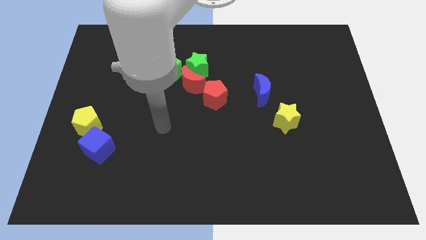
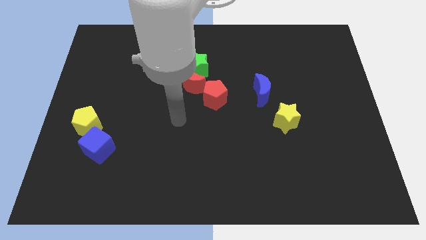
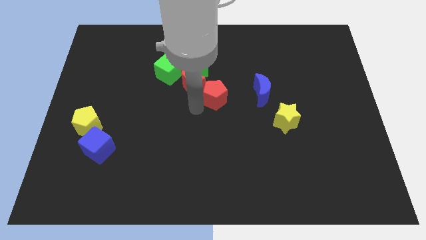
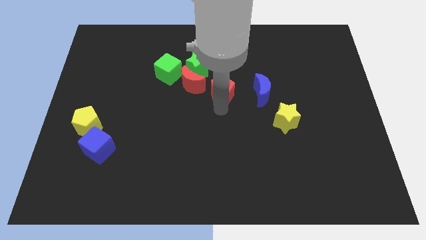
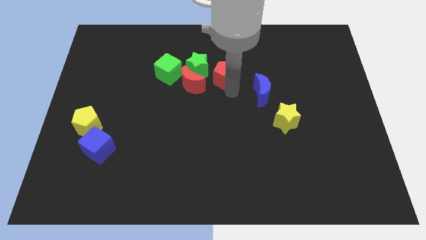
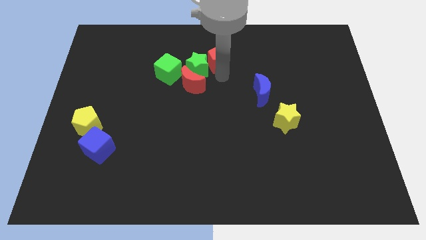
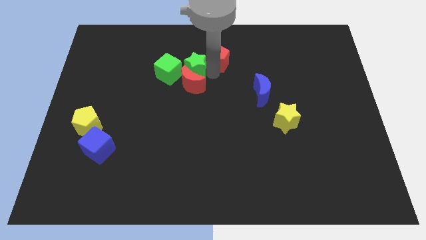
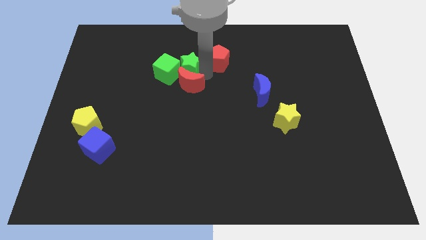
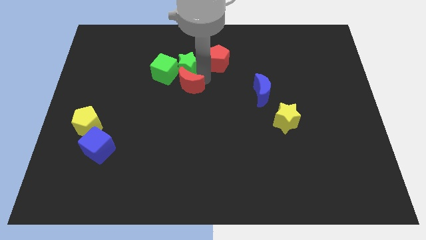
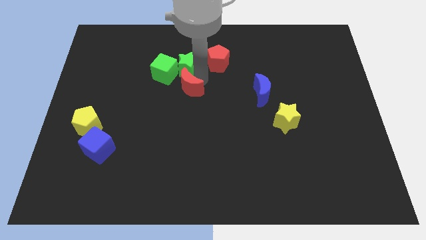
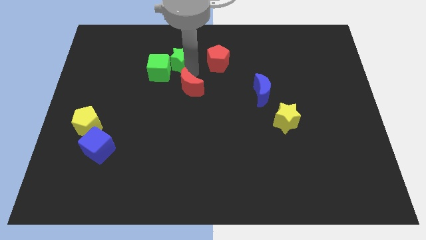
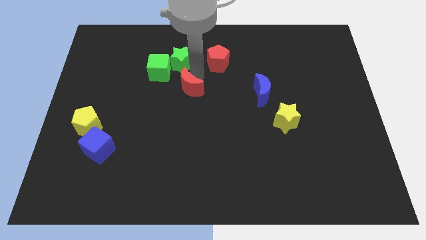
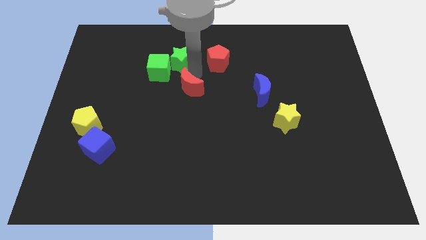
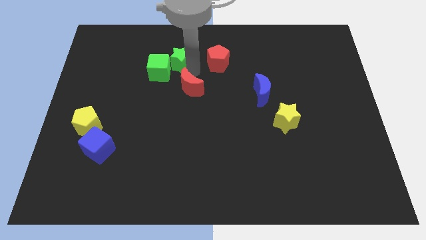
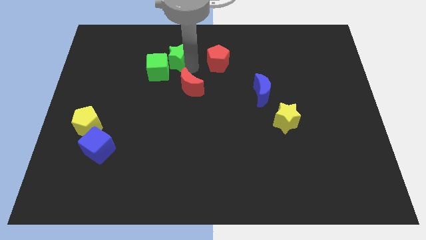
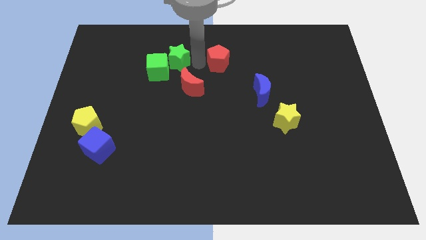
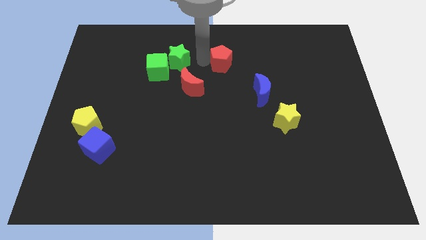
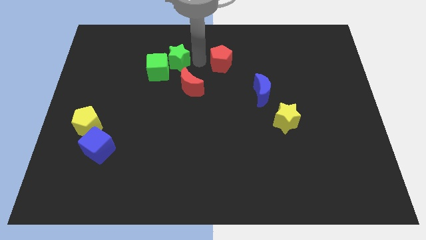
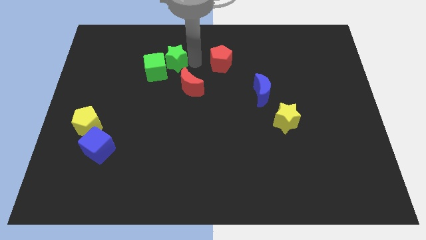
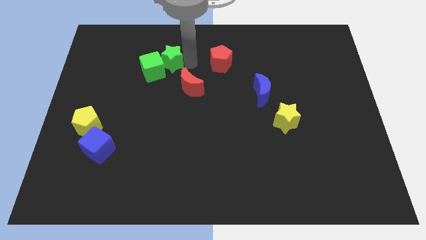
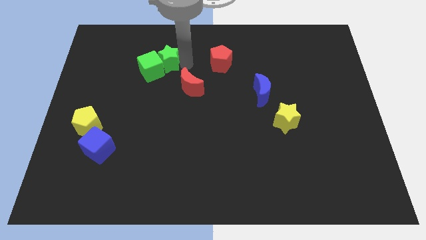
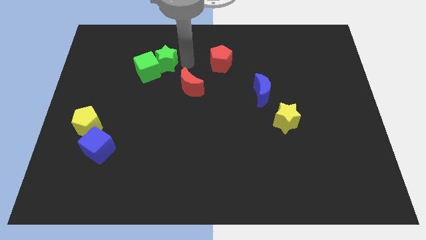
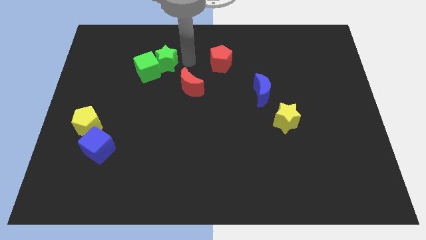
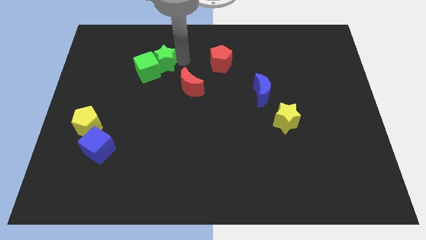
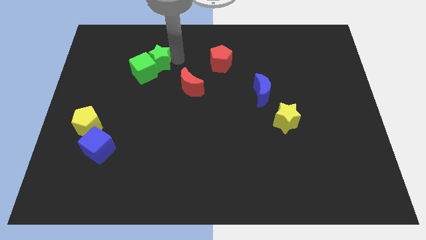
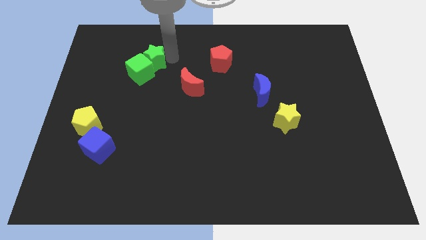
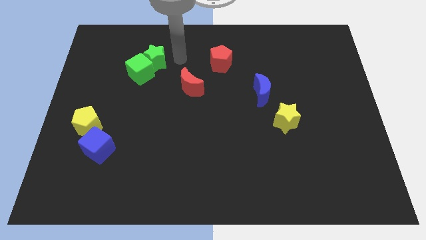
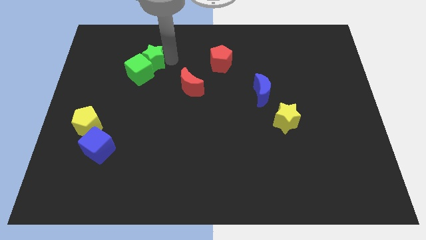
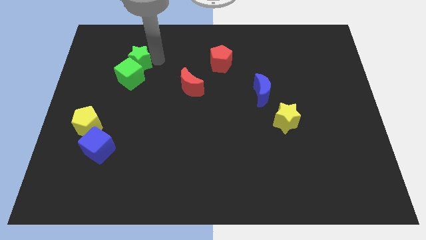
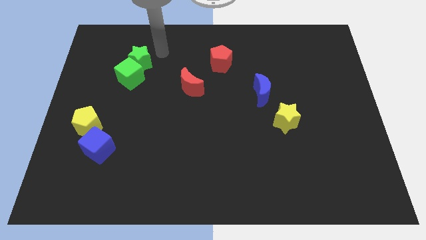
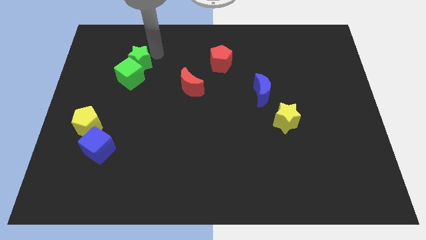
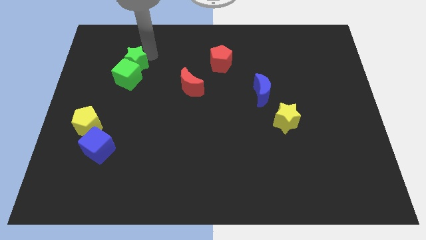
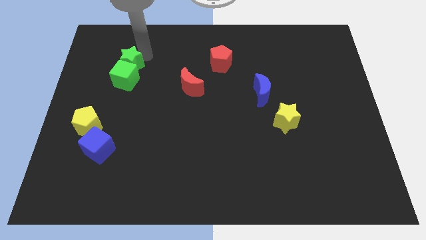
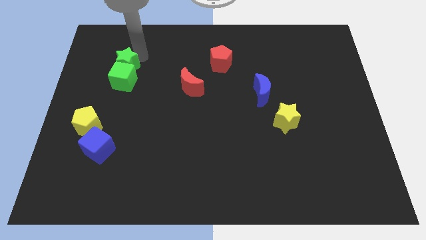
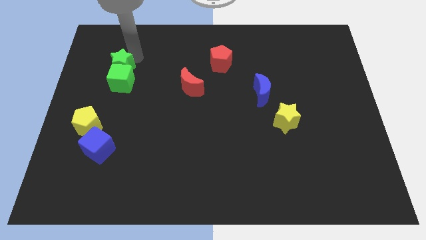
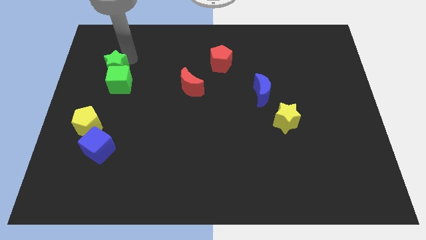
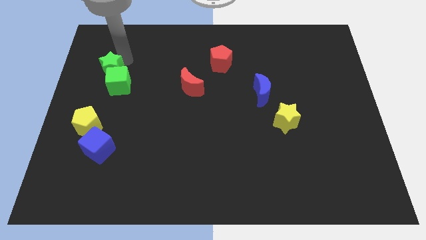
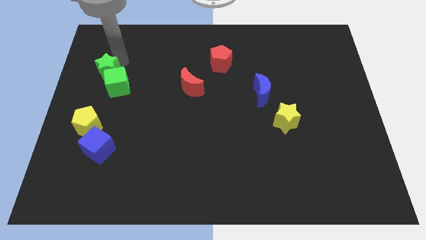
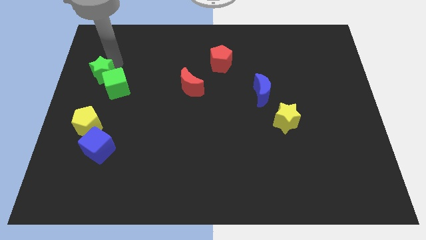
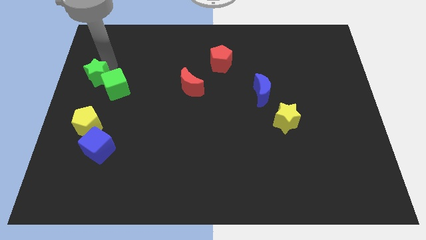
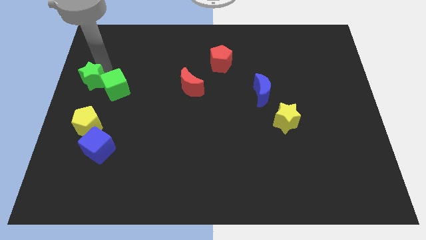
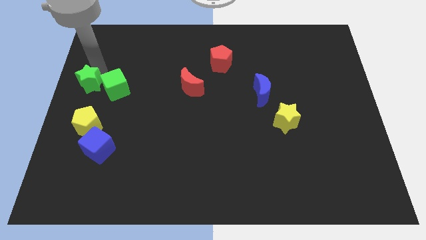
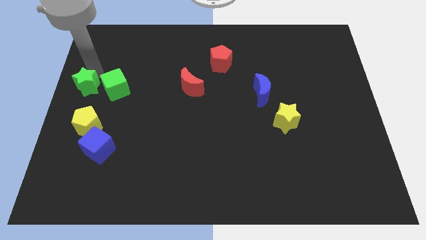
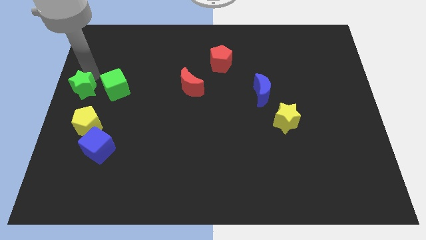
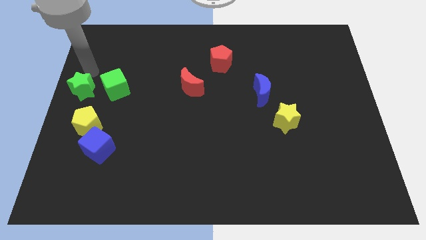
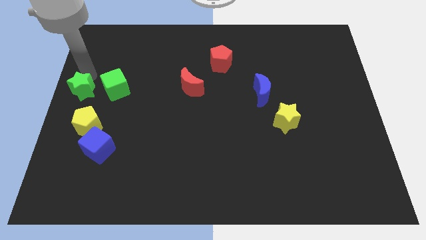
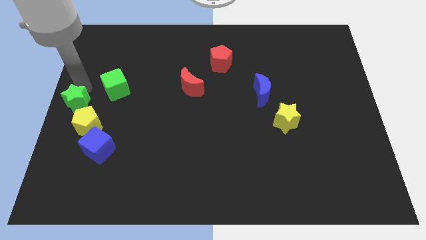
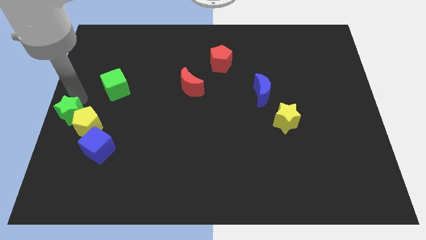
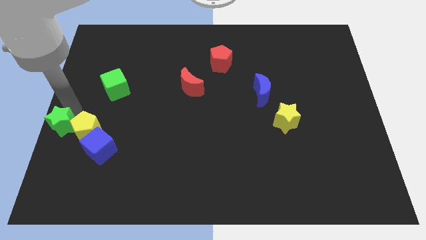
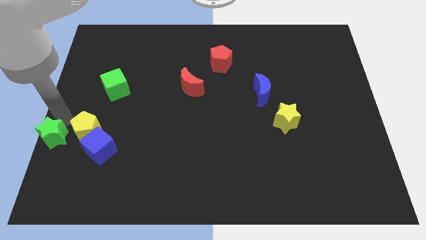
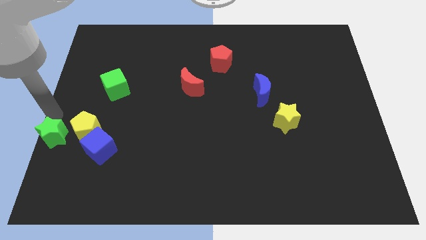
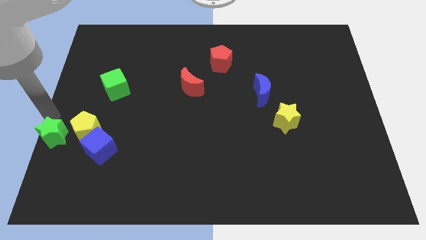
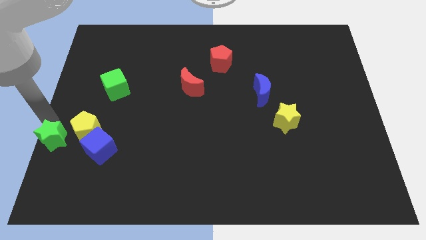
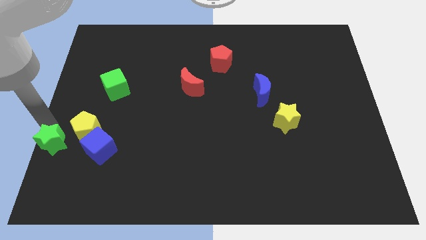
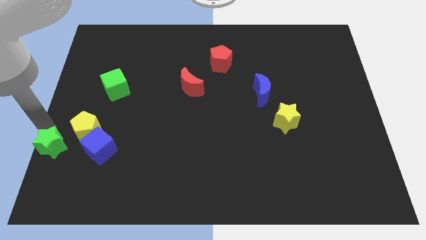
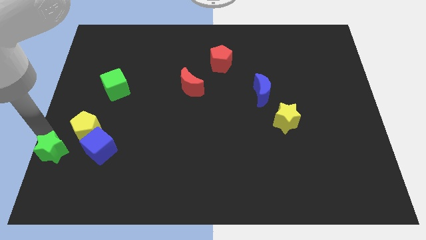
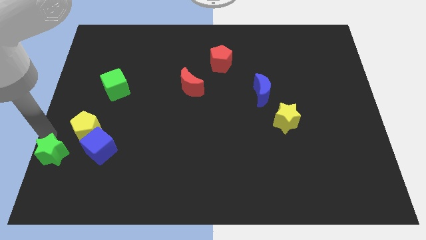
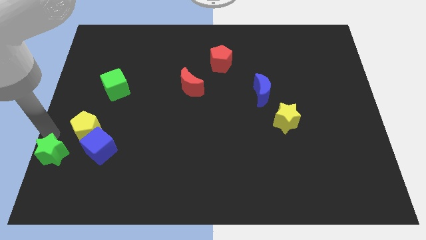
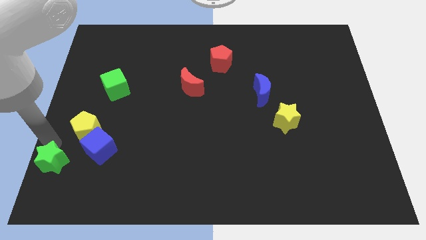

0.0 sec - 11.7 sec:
slide the green star to the bottom left corner
